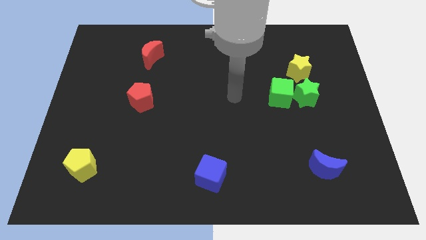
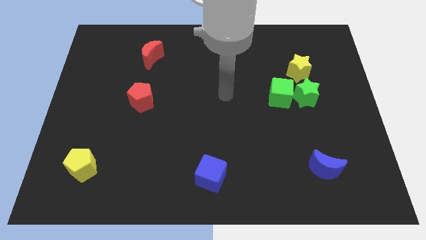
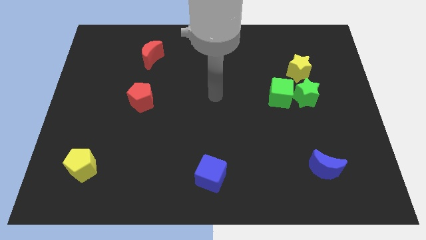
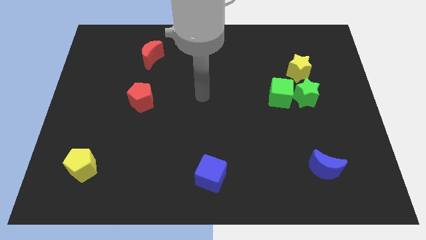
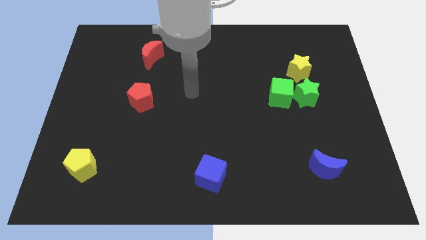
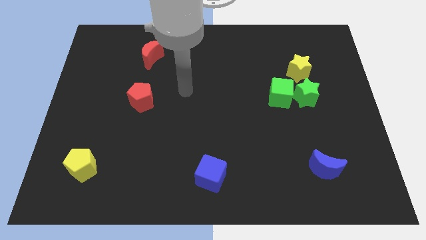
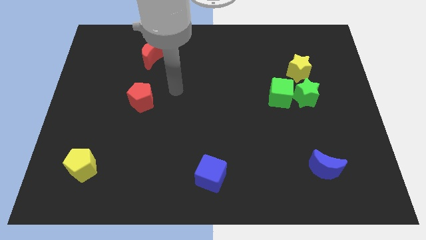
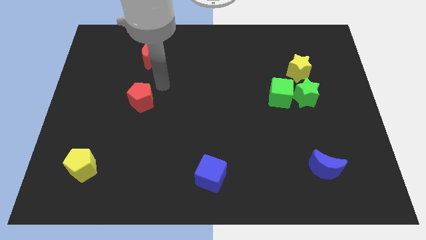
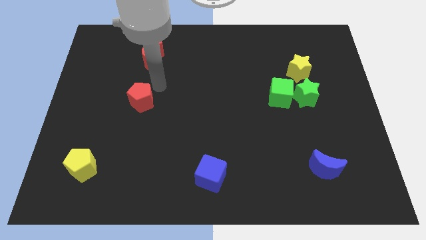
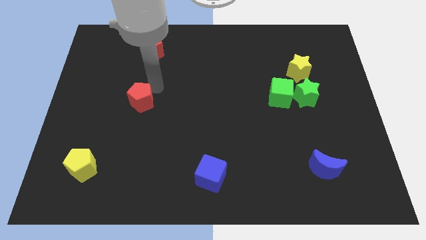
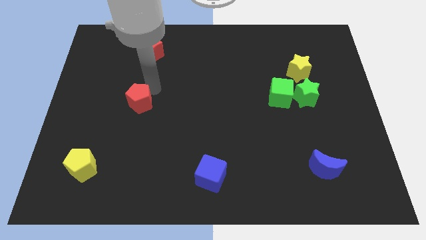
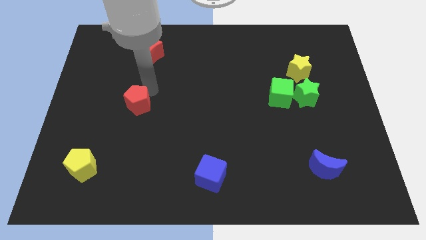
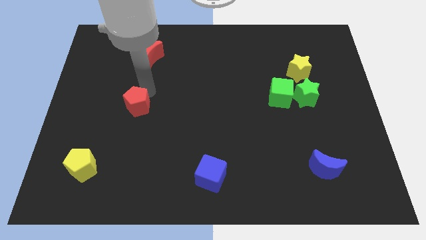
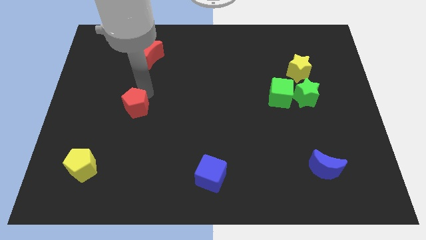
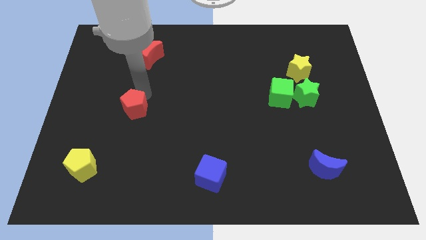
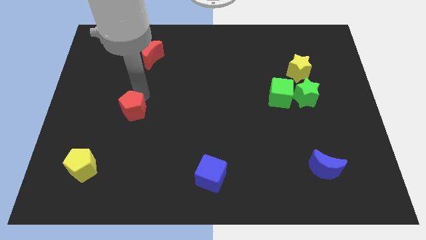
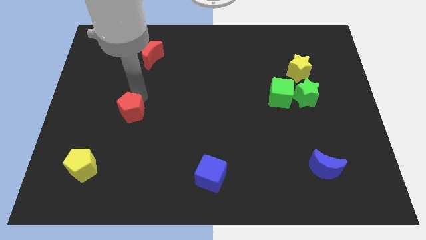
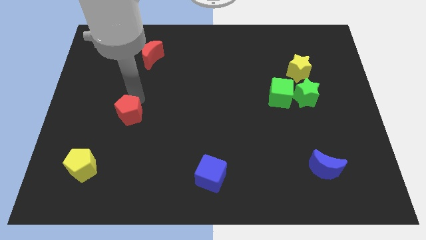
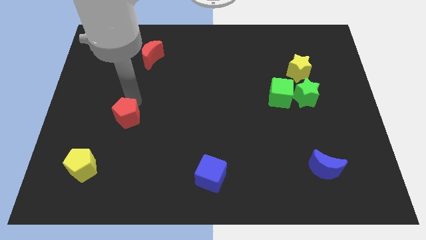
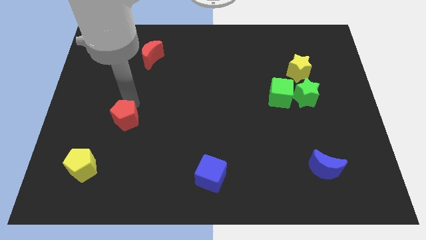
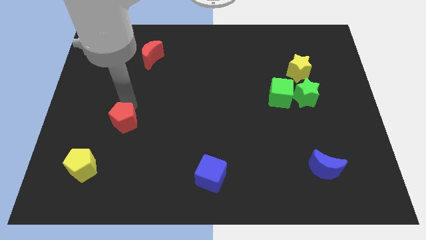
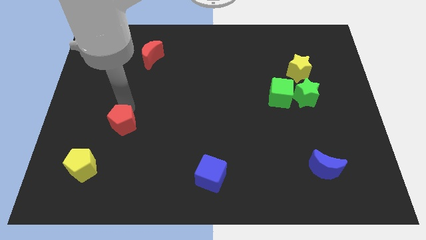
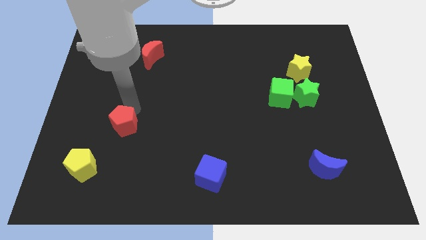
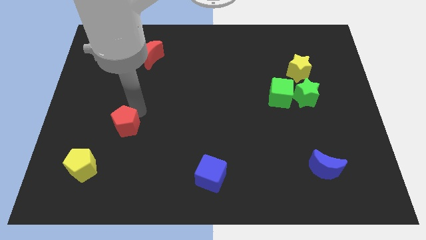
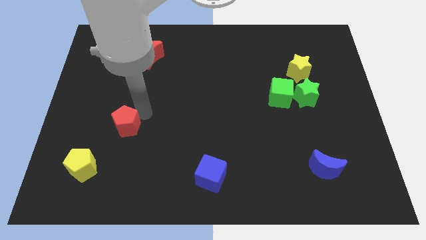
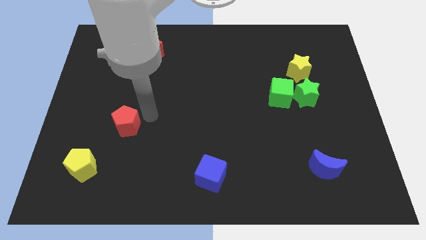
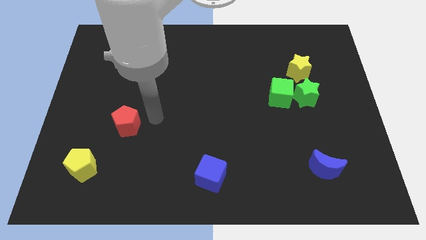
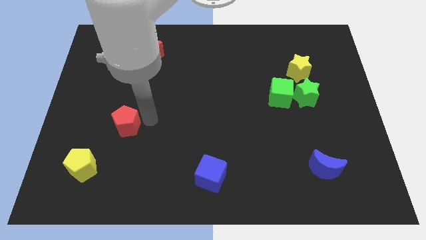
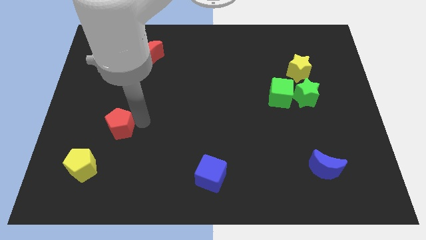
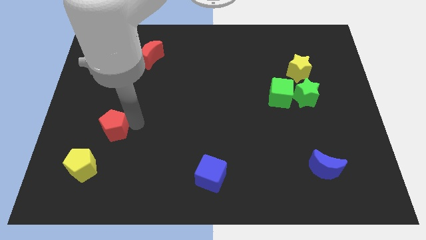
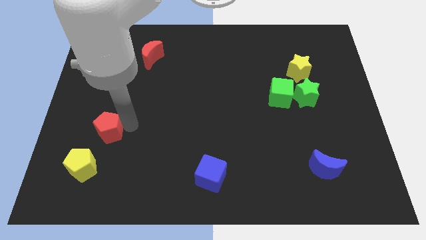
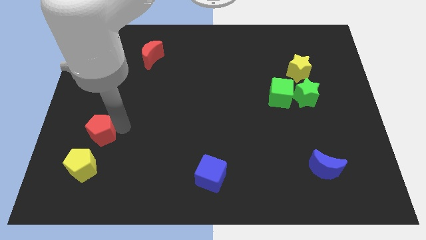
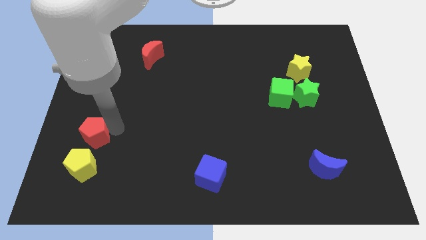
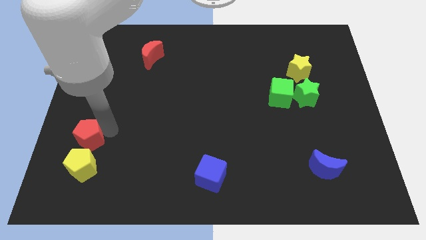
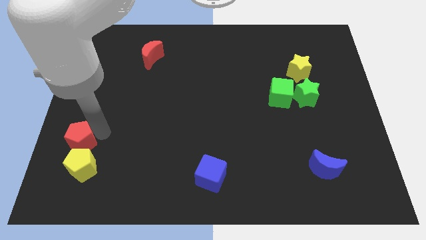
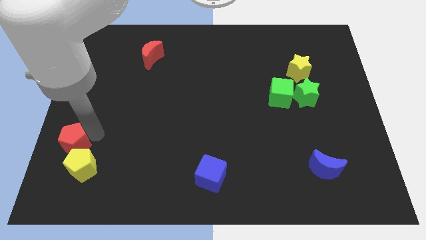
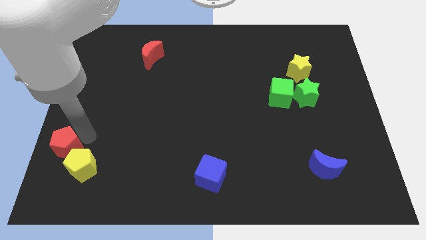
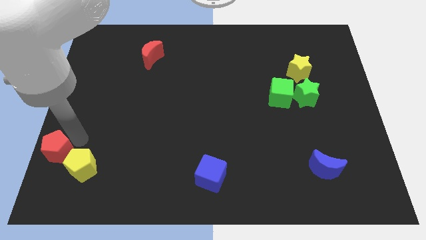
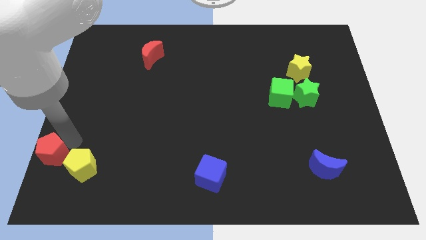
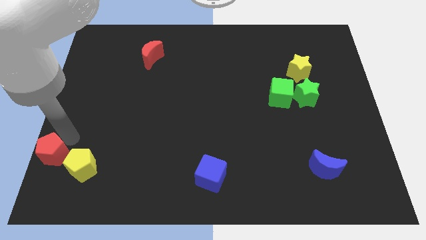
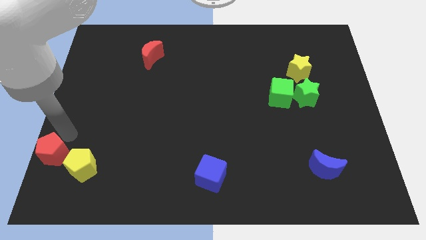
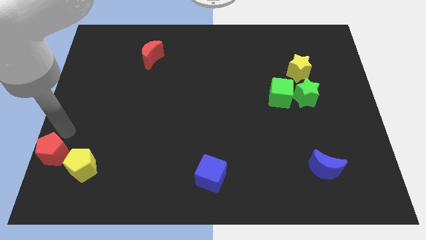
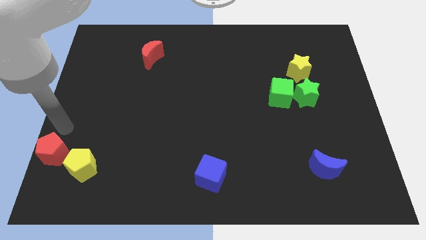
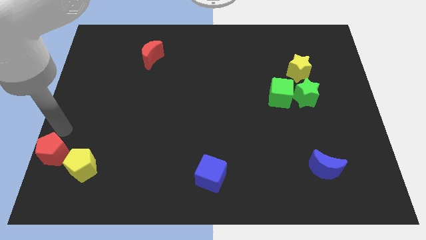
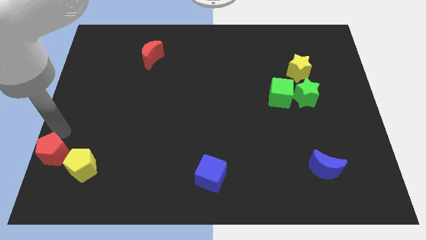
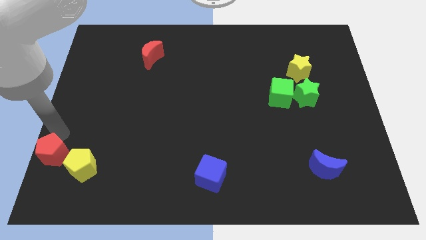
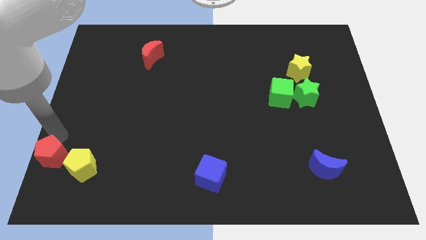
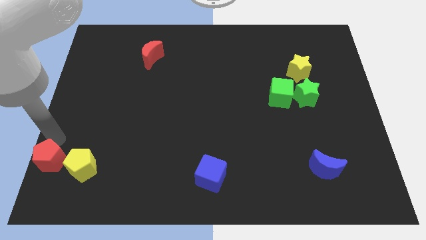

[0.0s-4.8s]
slide the red pentagon to the lower left corner

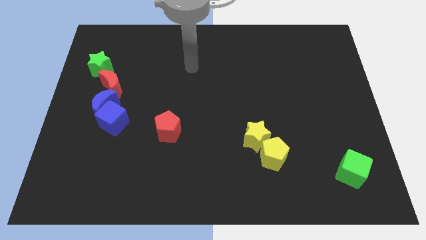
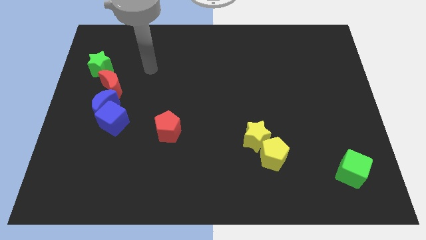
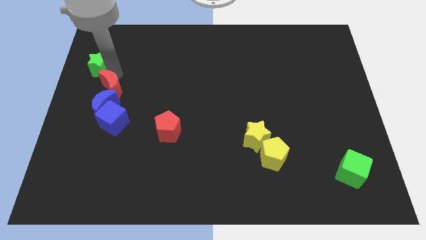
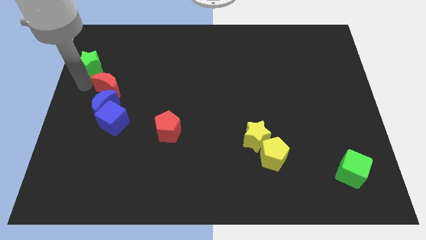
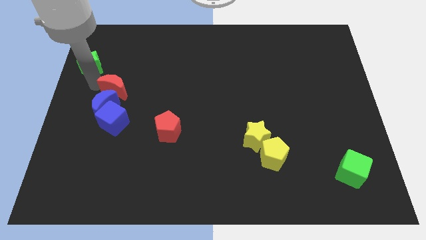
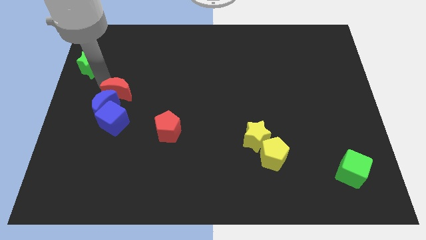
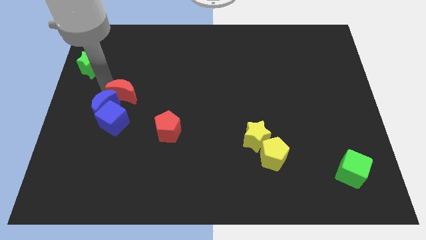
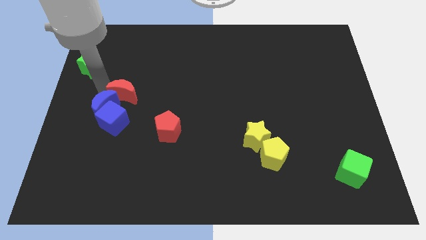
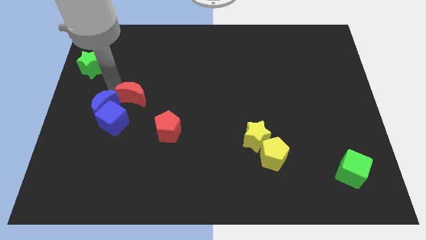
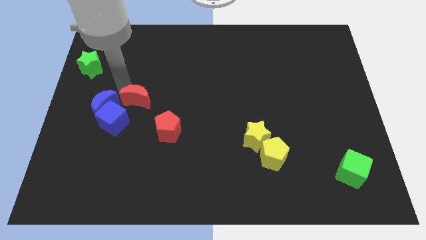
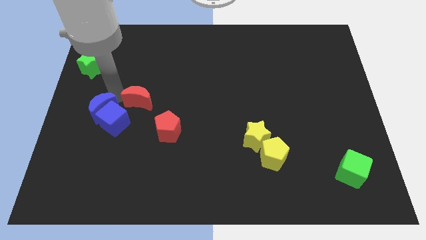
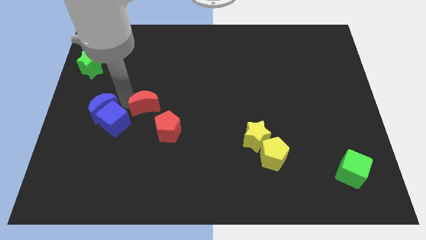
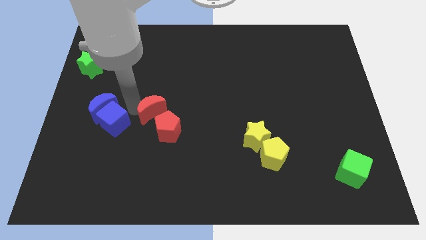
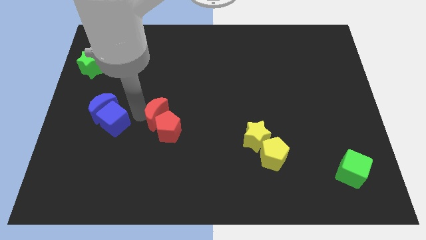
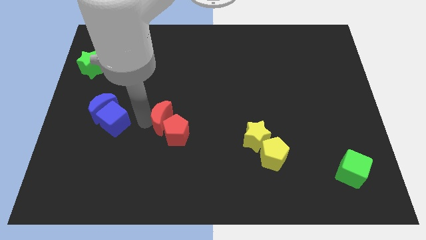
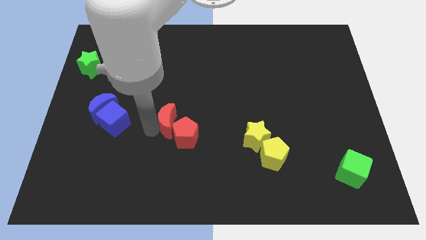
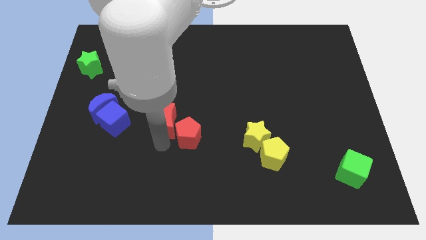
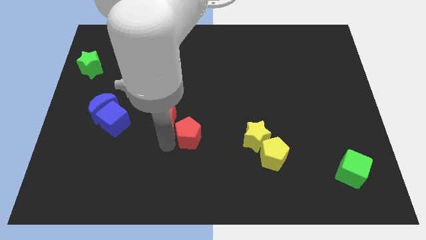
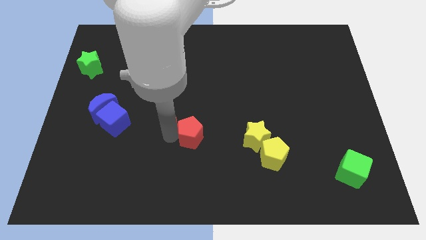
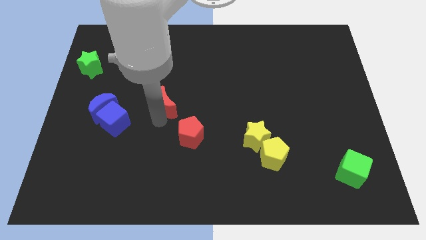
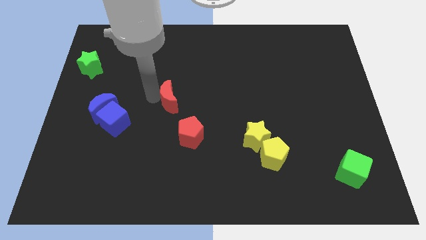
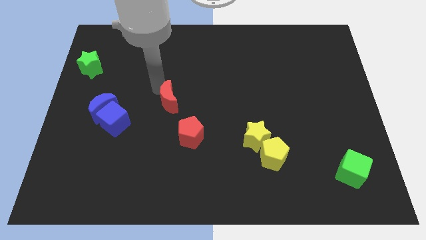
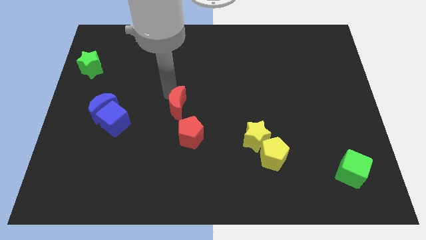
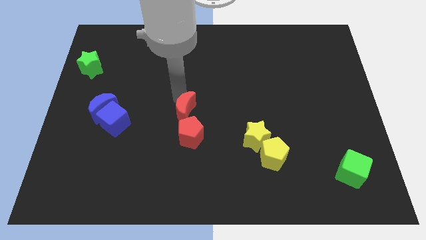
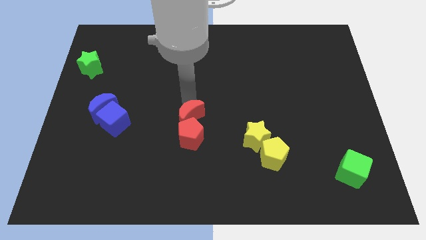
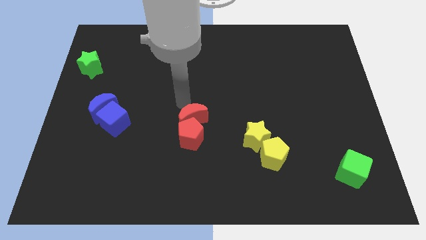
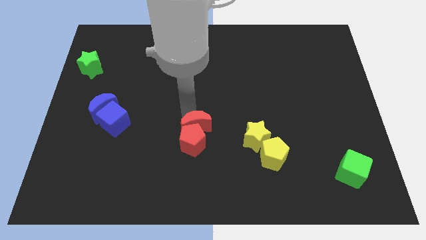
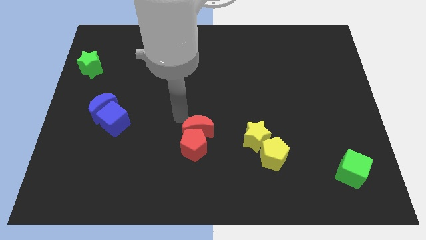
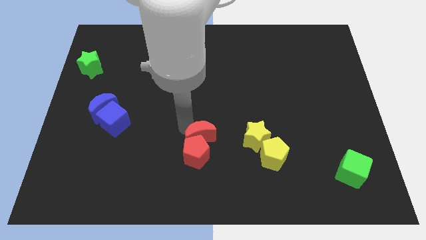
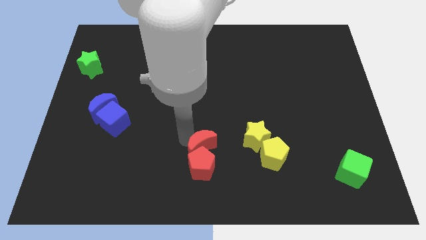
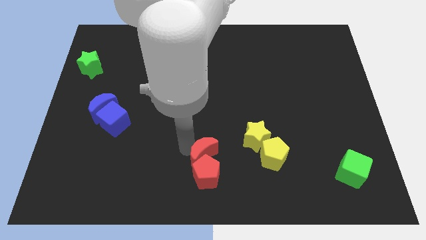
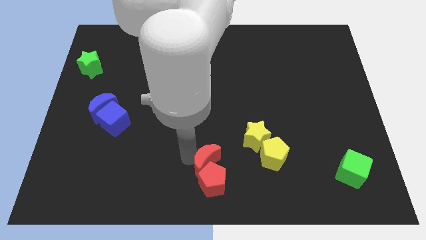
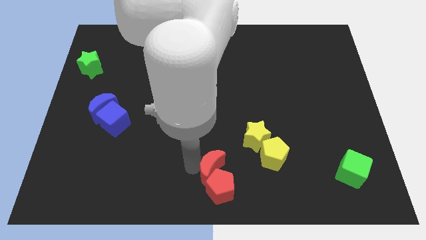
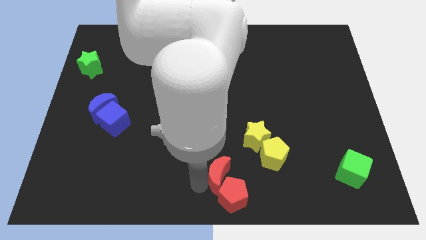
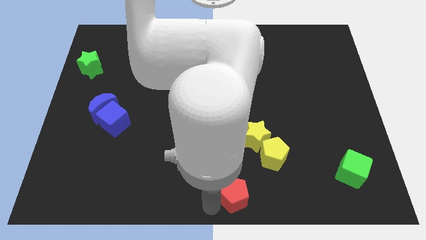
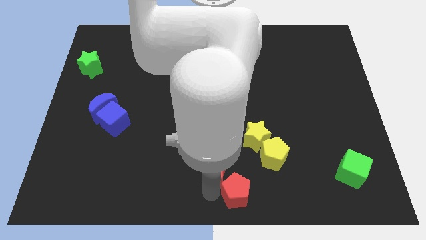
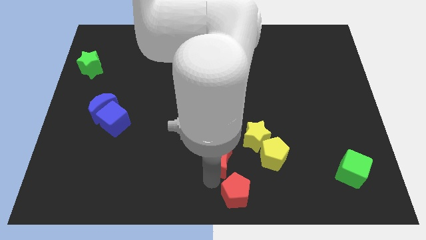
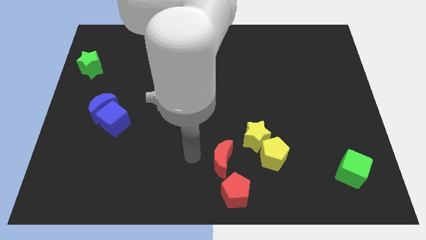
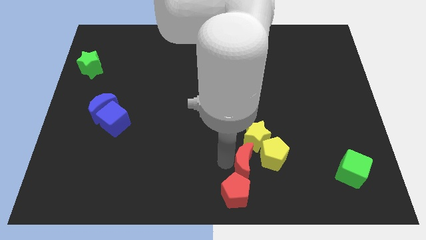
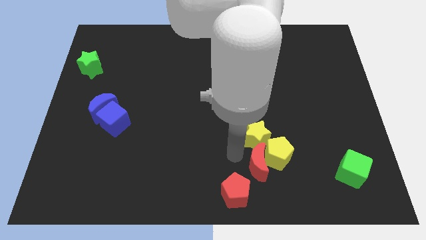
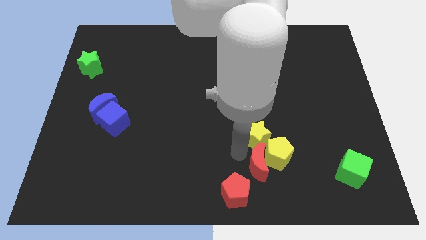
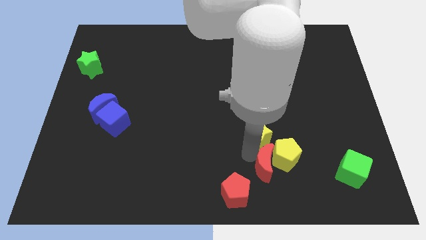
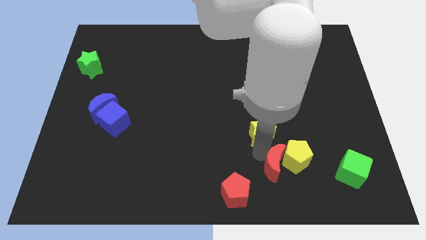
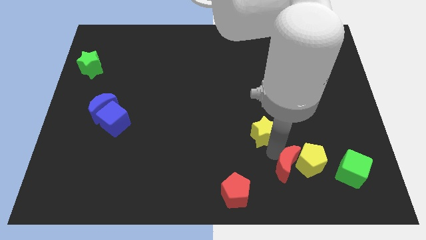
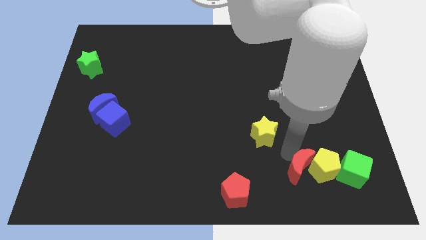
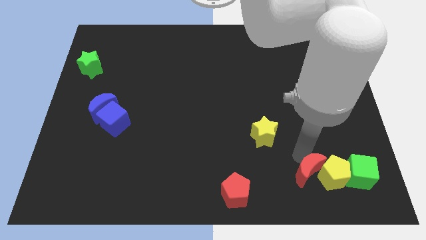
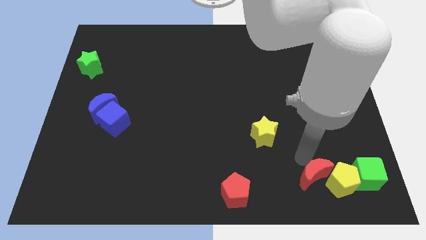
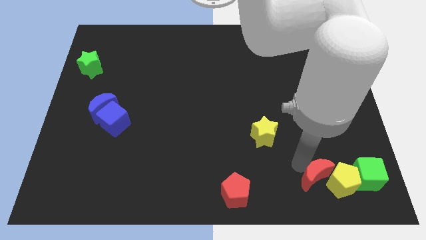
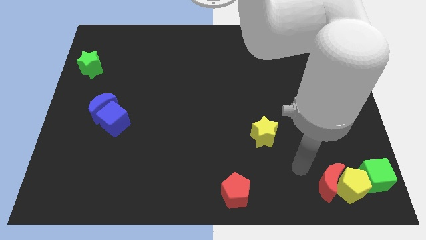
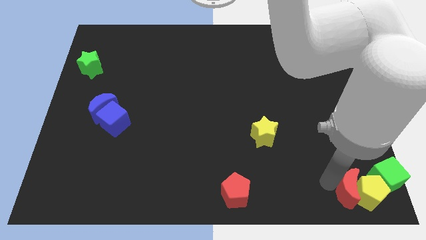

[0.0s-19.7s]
move the red moon to the bottom right of the board
